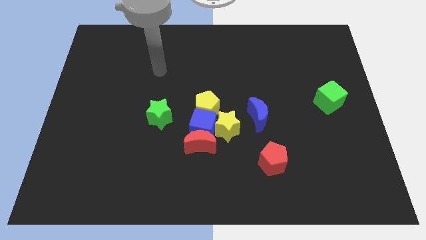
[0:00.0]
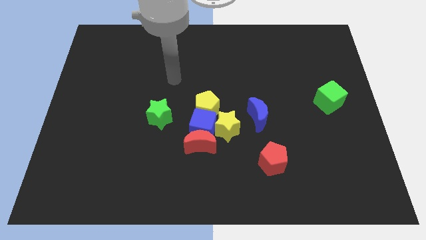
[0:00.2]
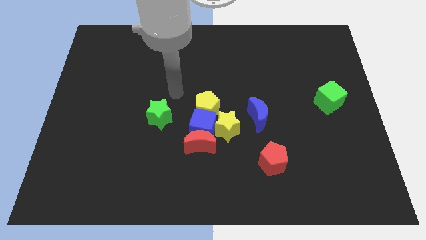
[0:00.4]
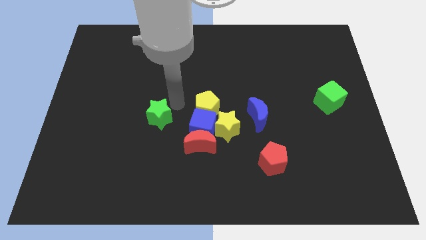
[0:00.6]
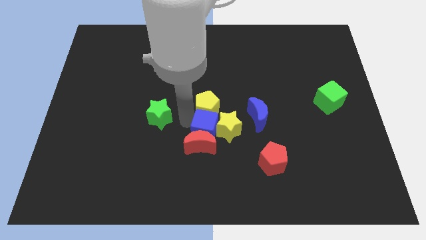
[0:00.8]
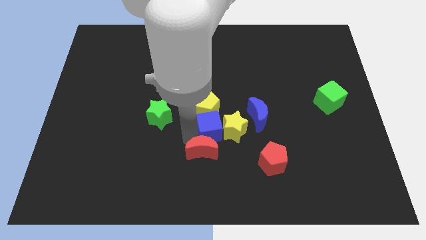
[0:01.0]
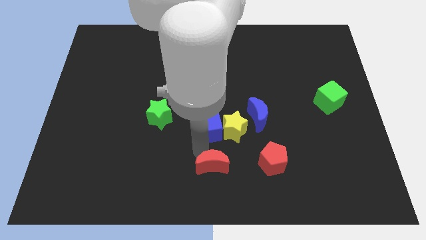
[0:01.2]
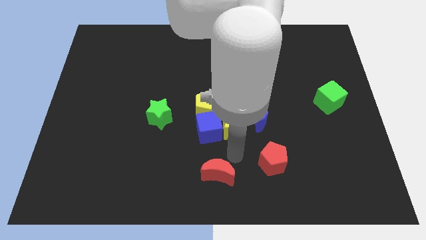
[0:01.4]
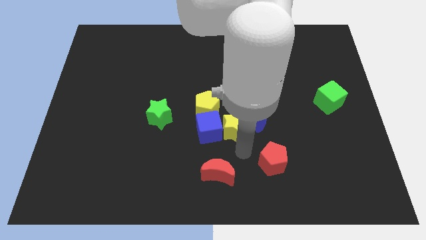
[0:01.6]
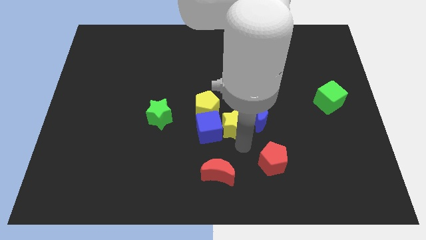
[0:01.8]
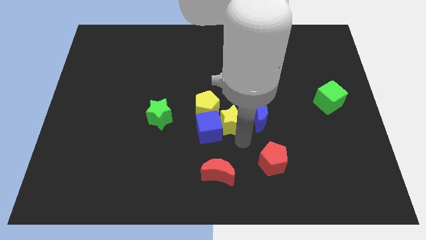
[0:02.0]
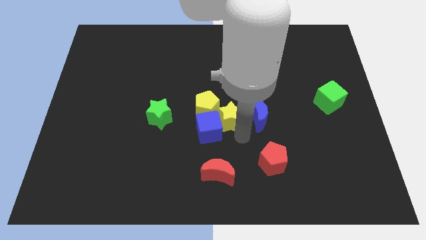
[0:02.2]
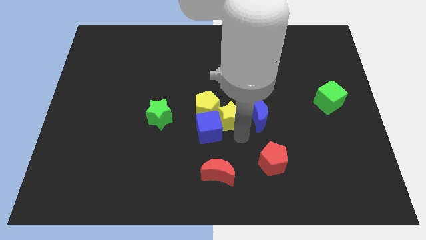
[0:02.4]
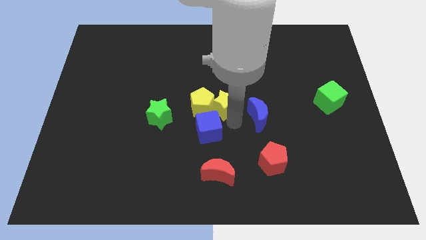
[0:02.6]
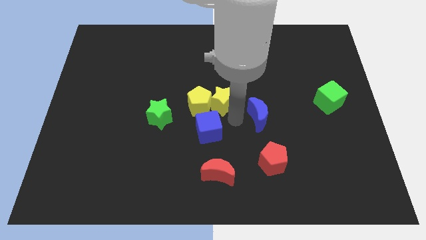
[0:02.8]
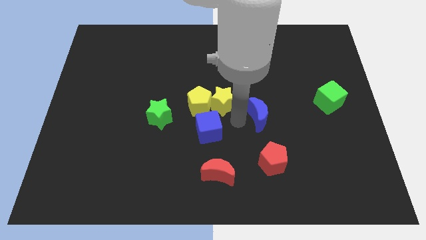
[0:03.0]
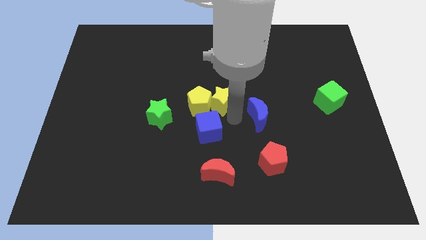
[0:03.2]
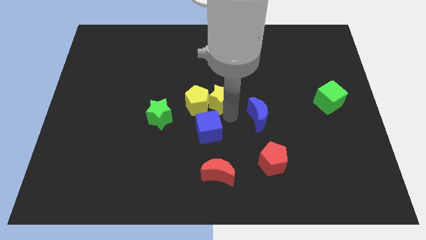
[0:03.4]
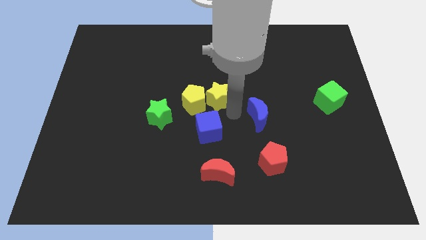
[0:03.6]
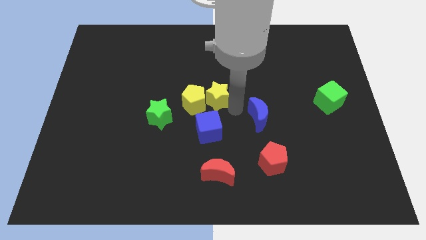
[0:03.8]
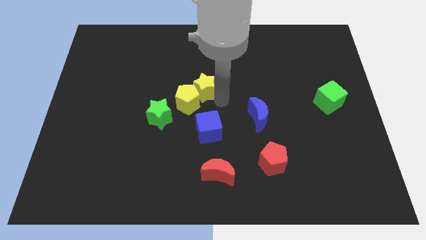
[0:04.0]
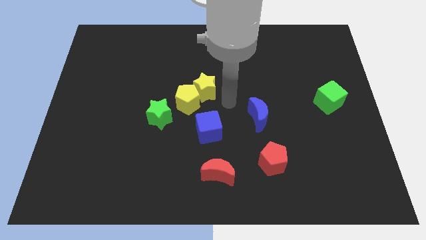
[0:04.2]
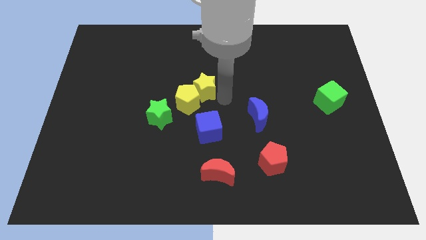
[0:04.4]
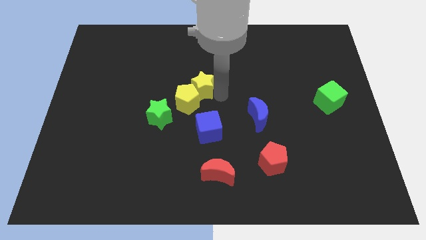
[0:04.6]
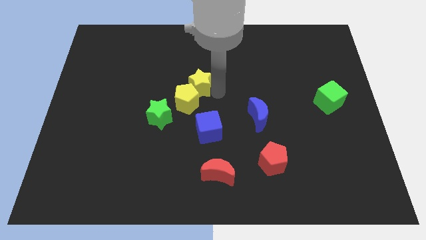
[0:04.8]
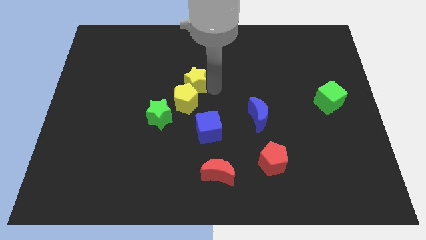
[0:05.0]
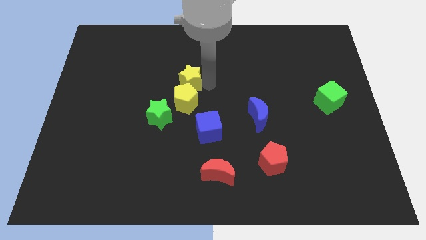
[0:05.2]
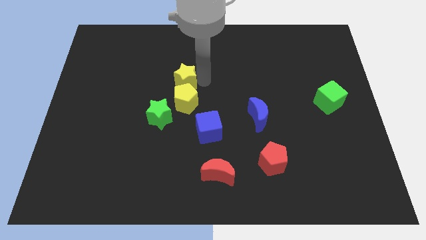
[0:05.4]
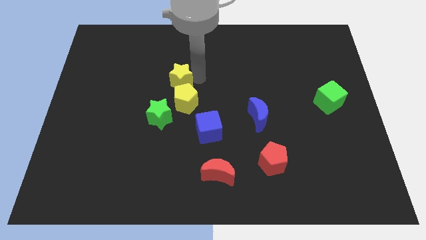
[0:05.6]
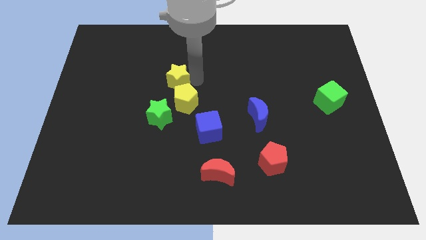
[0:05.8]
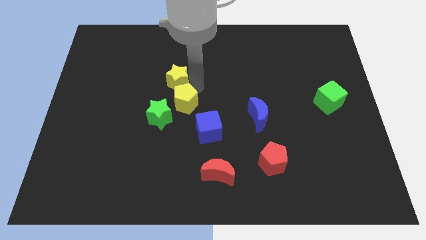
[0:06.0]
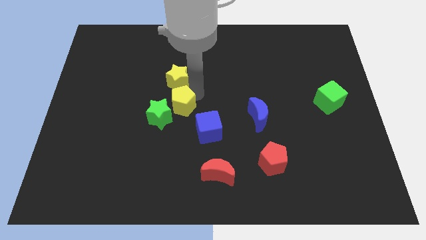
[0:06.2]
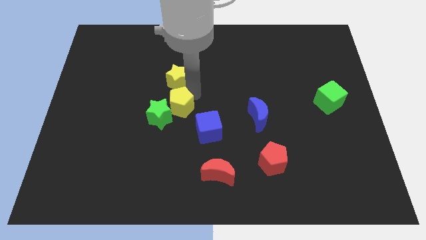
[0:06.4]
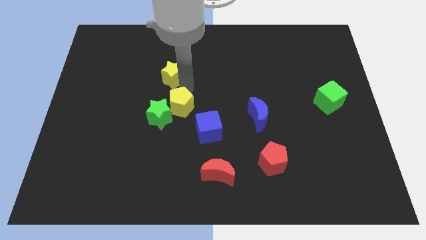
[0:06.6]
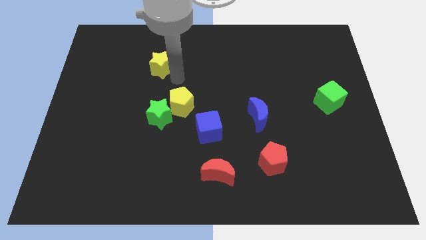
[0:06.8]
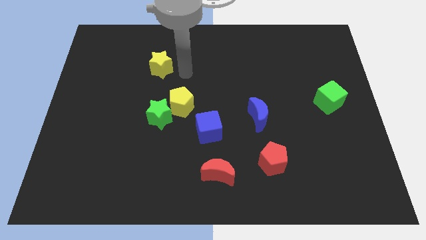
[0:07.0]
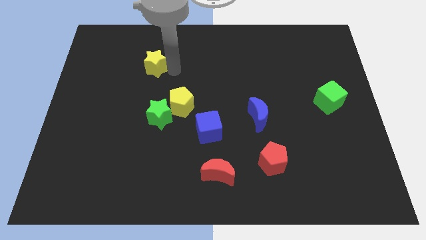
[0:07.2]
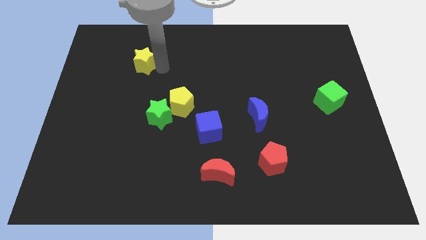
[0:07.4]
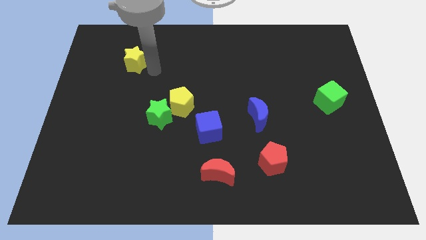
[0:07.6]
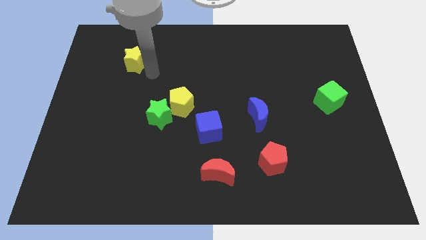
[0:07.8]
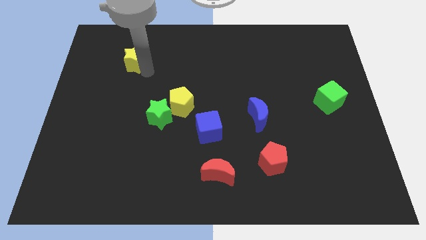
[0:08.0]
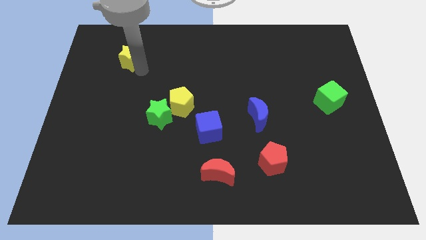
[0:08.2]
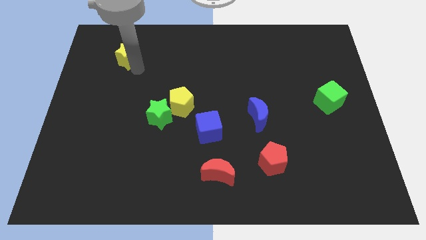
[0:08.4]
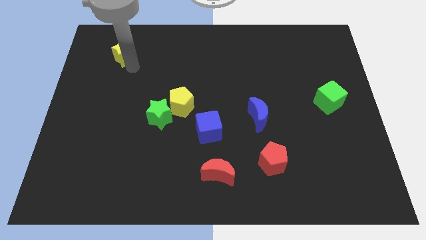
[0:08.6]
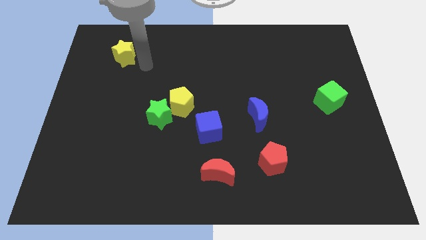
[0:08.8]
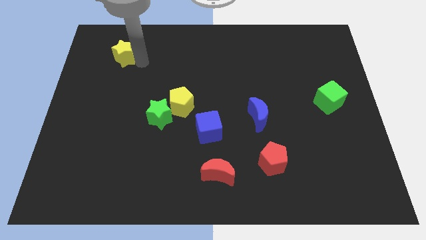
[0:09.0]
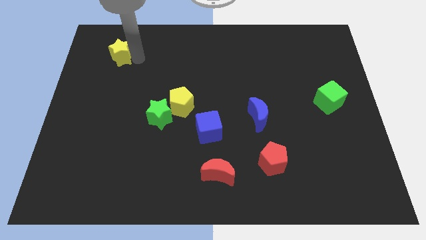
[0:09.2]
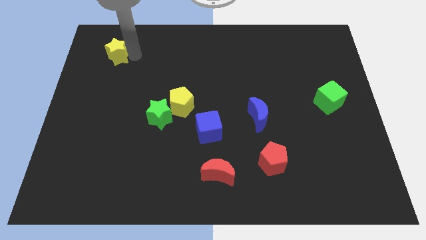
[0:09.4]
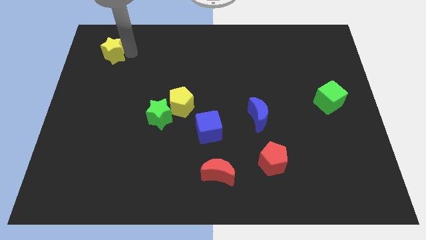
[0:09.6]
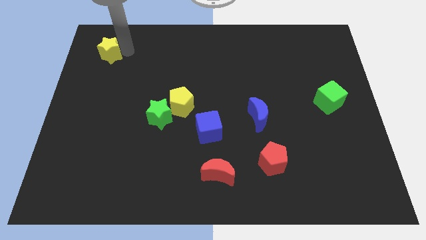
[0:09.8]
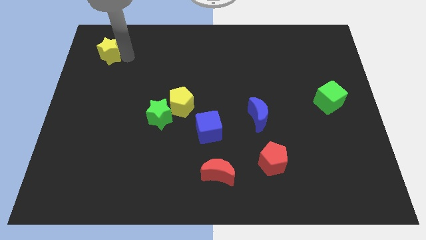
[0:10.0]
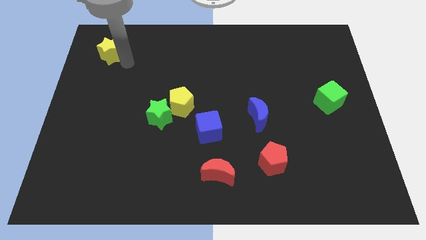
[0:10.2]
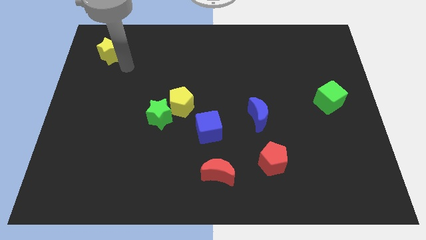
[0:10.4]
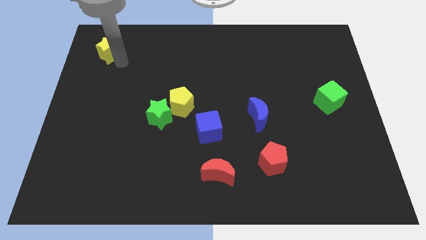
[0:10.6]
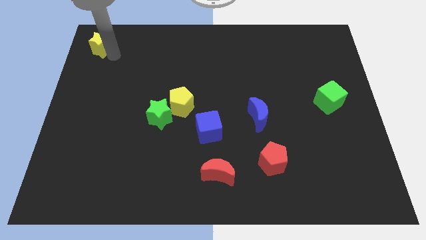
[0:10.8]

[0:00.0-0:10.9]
push the yellow star to the top left of the board
